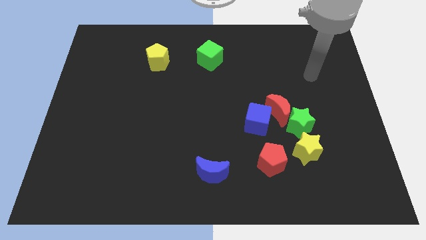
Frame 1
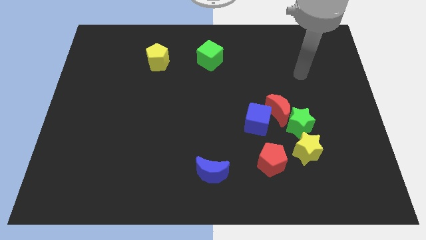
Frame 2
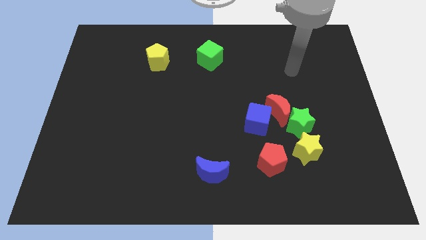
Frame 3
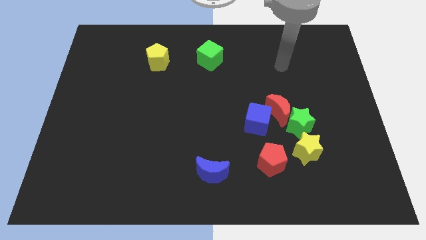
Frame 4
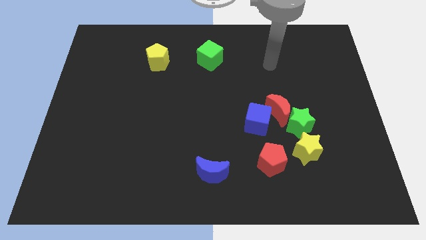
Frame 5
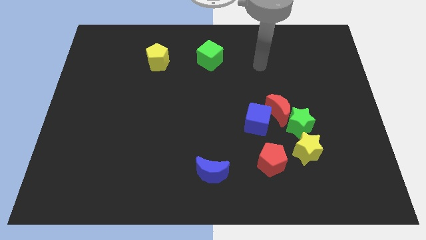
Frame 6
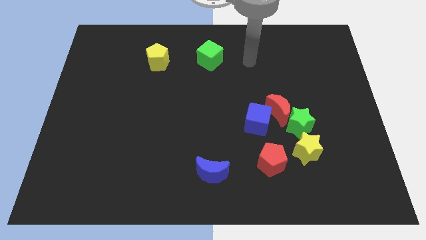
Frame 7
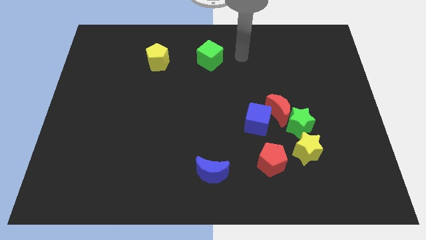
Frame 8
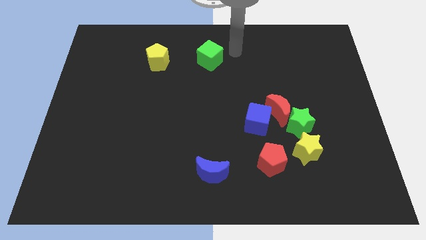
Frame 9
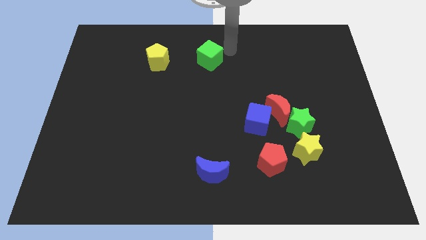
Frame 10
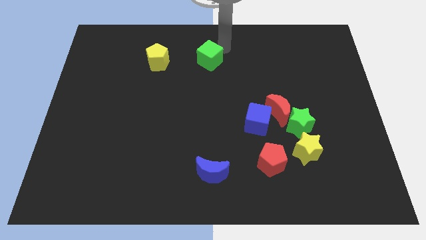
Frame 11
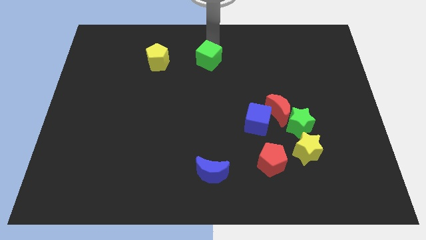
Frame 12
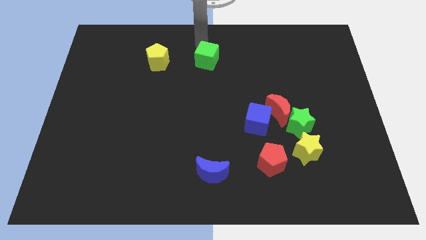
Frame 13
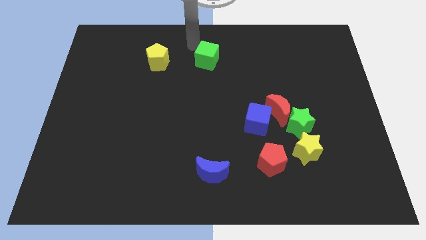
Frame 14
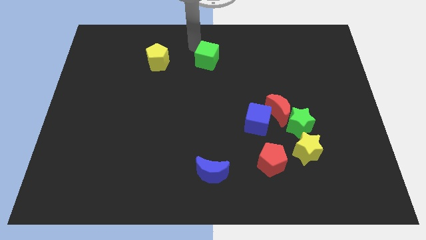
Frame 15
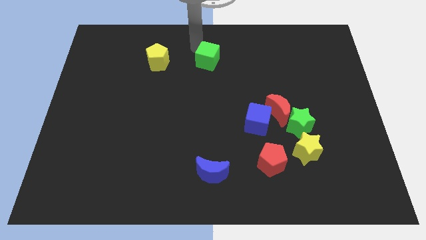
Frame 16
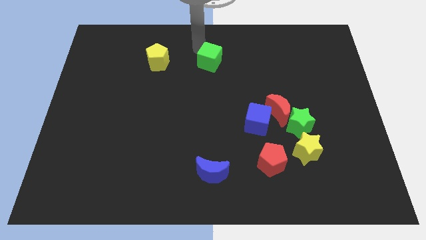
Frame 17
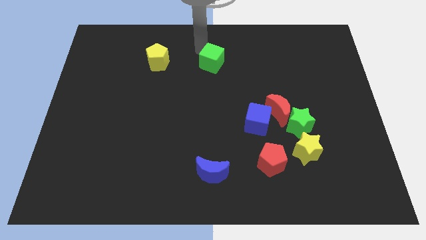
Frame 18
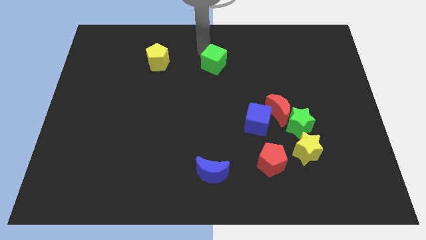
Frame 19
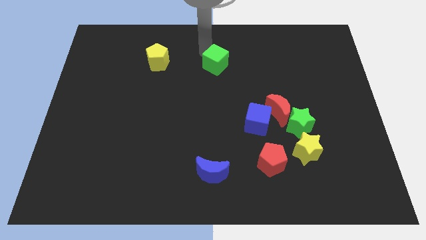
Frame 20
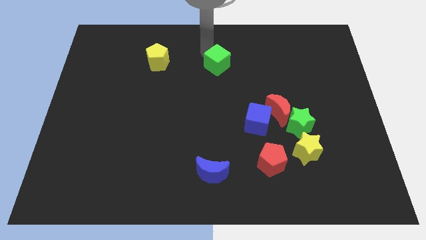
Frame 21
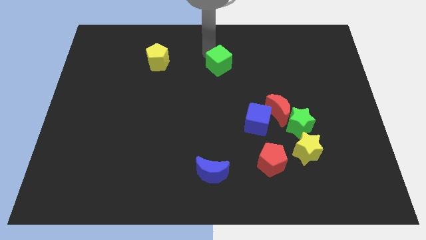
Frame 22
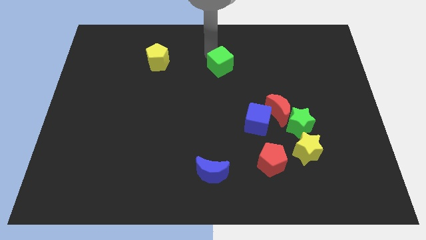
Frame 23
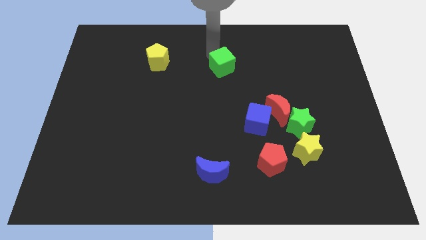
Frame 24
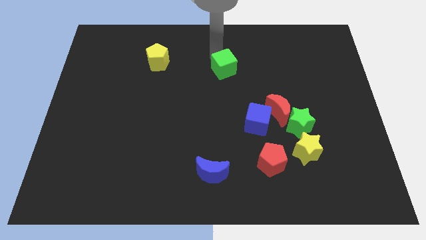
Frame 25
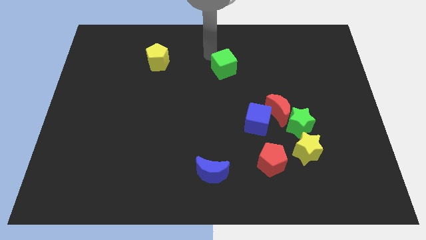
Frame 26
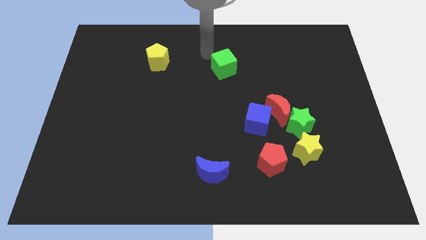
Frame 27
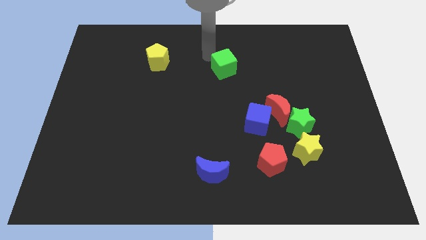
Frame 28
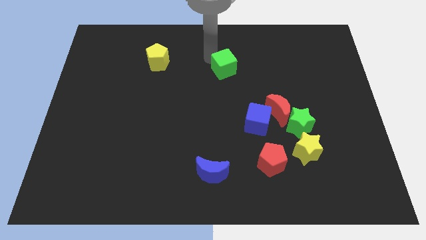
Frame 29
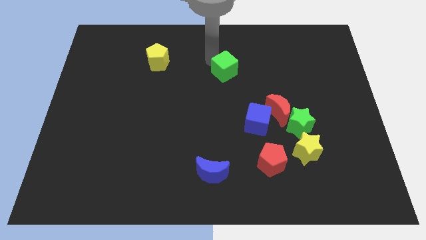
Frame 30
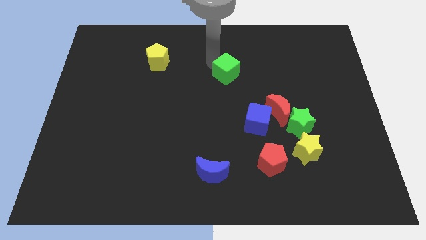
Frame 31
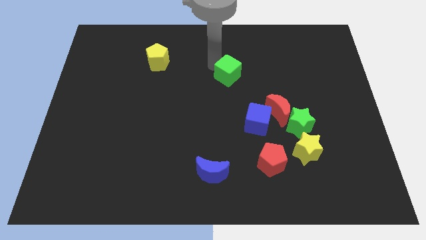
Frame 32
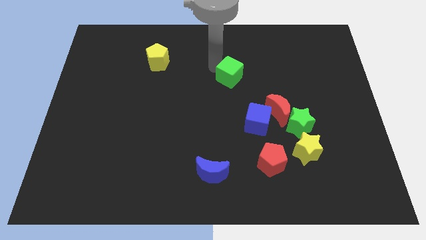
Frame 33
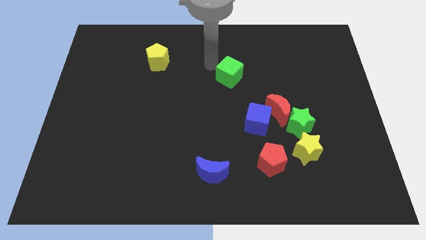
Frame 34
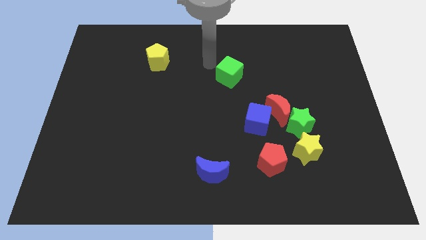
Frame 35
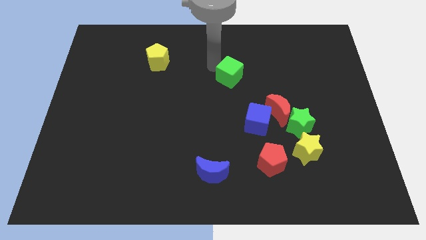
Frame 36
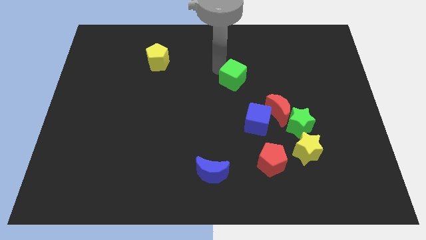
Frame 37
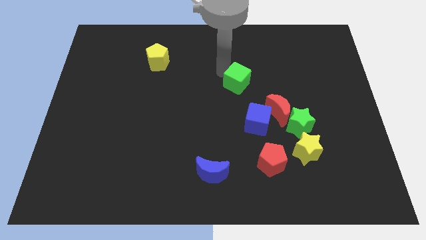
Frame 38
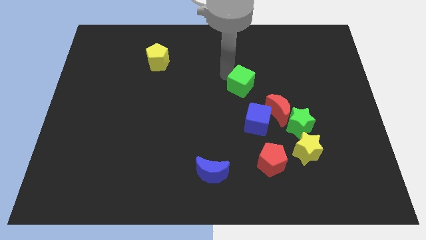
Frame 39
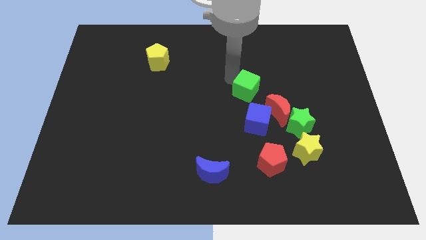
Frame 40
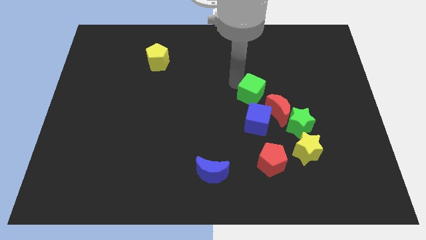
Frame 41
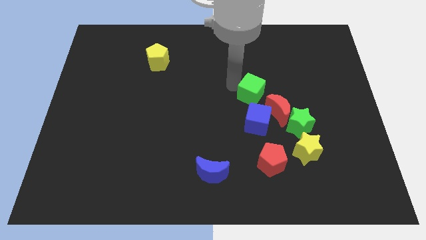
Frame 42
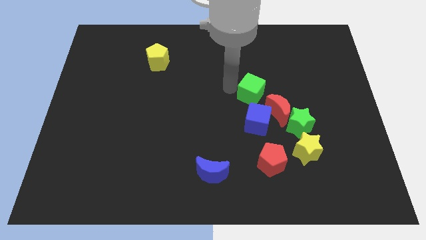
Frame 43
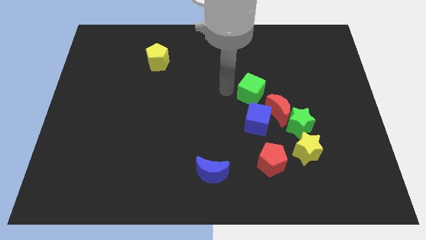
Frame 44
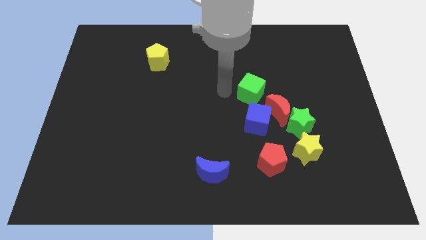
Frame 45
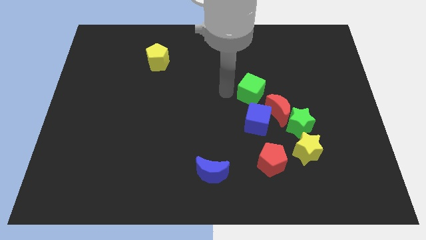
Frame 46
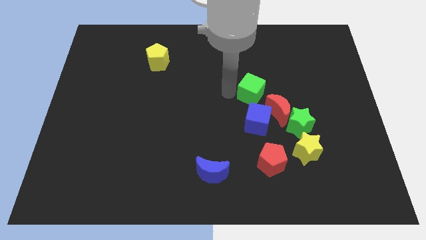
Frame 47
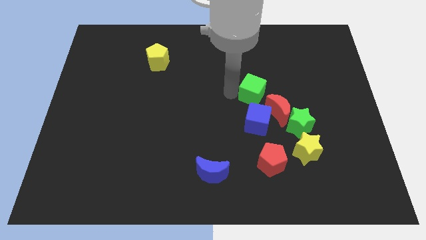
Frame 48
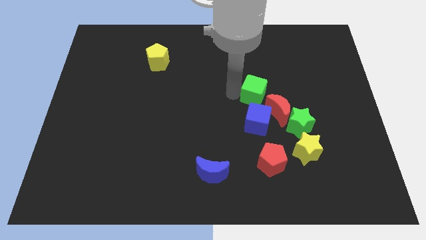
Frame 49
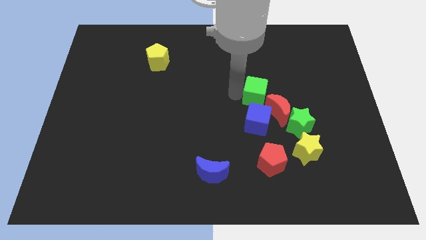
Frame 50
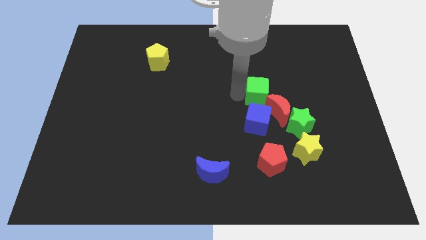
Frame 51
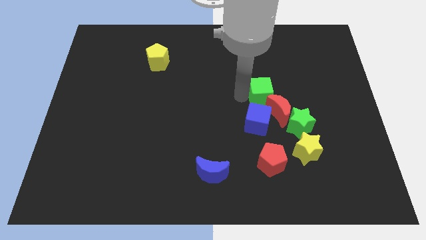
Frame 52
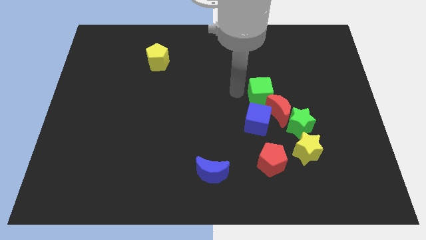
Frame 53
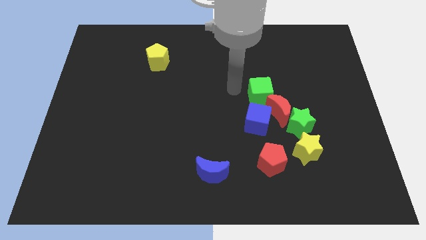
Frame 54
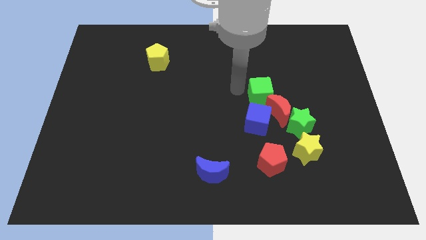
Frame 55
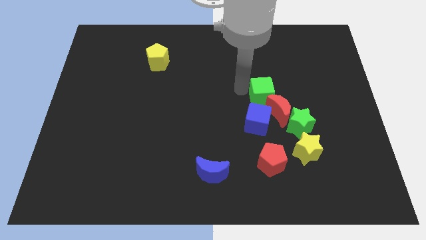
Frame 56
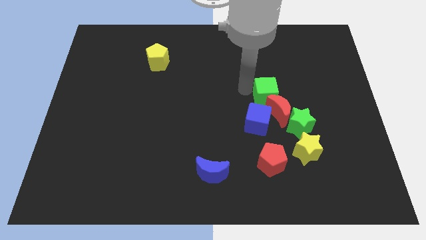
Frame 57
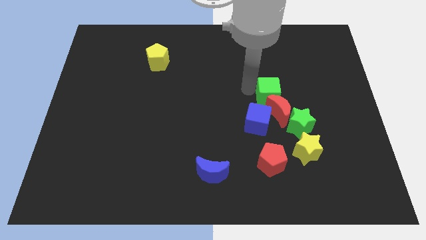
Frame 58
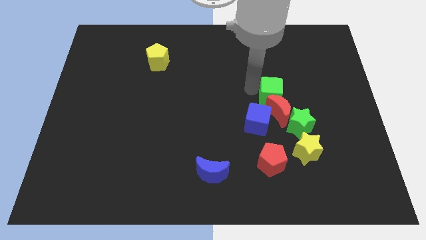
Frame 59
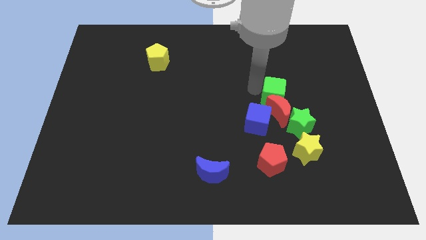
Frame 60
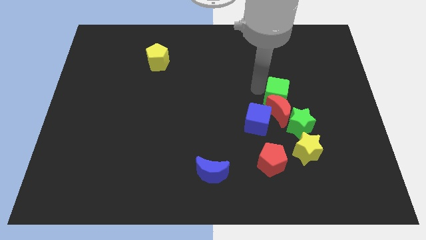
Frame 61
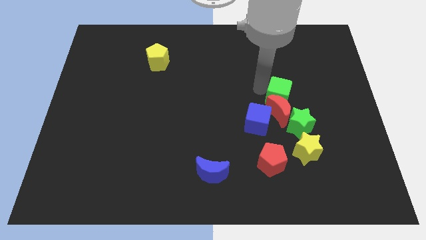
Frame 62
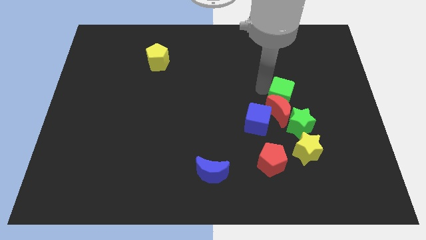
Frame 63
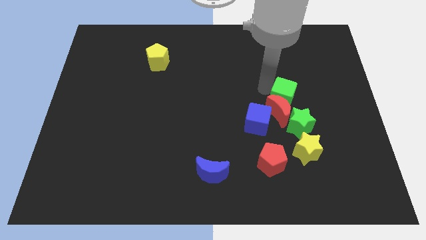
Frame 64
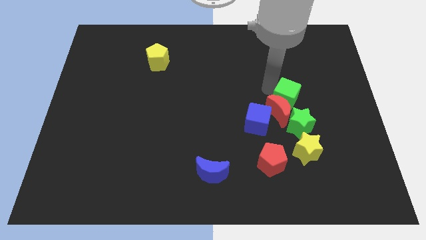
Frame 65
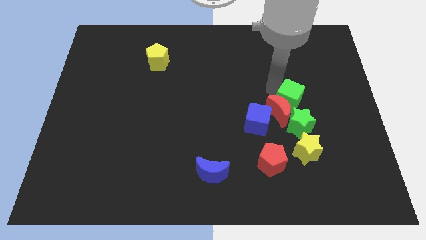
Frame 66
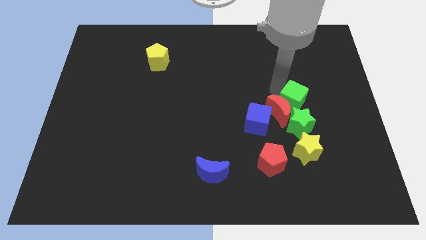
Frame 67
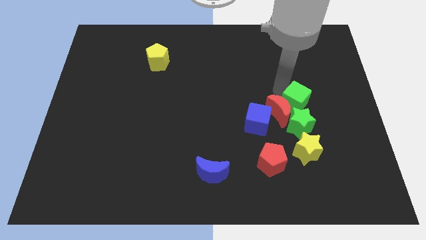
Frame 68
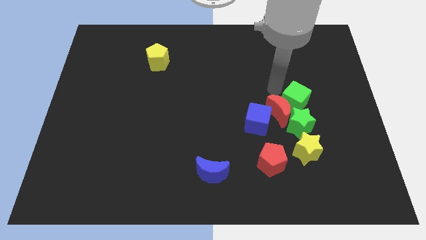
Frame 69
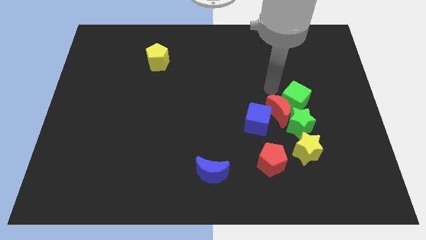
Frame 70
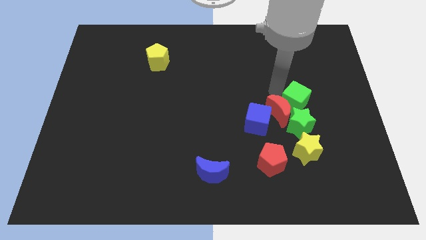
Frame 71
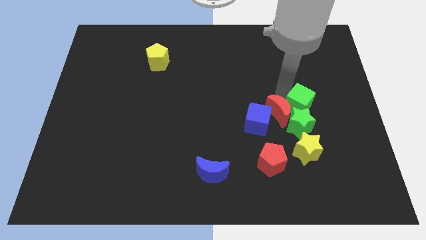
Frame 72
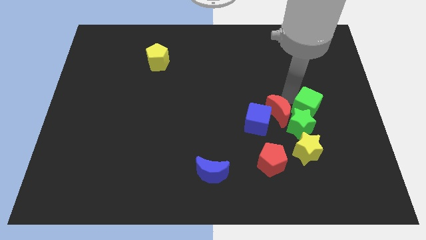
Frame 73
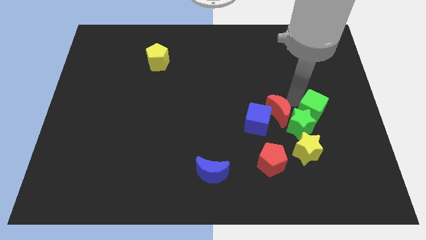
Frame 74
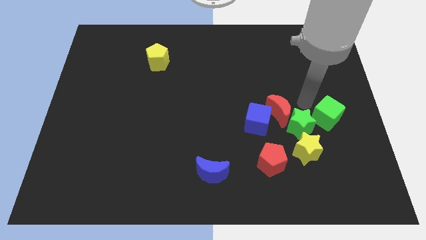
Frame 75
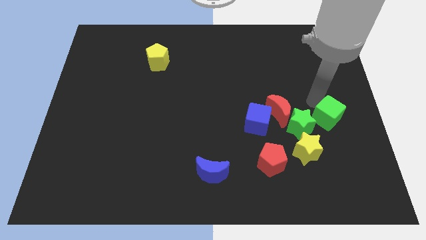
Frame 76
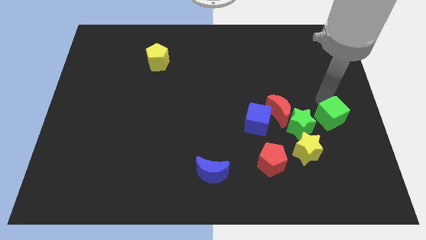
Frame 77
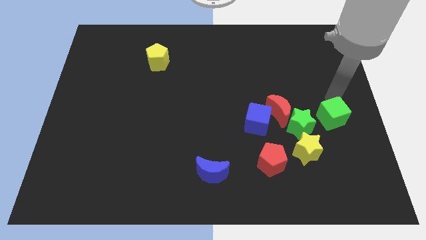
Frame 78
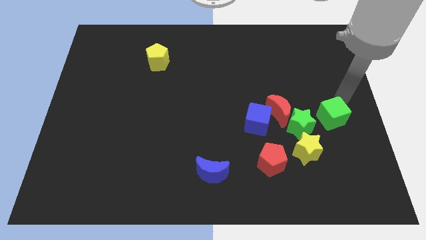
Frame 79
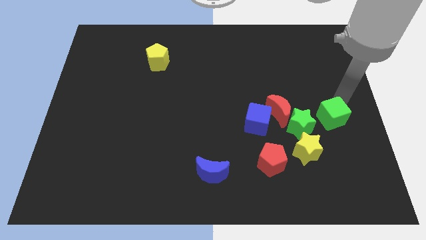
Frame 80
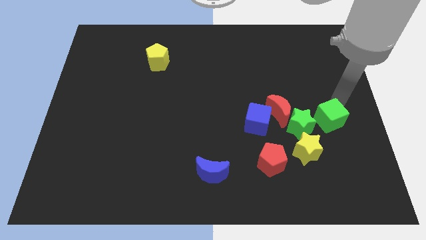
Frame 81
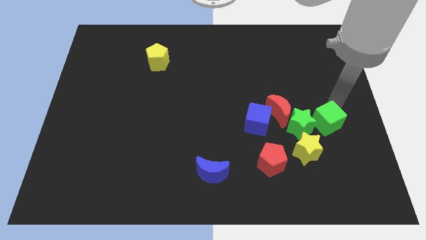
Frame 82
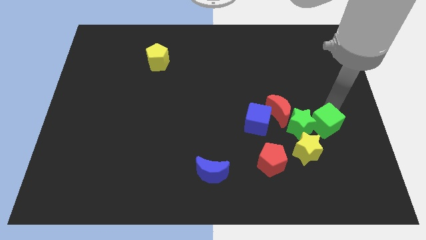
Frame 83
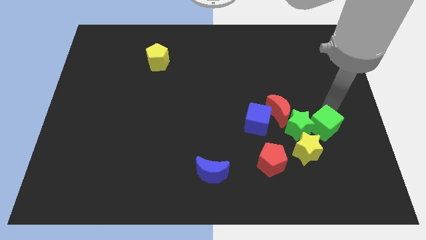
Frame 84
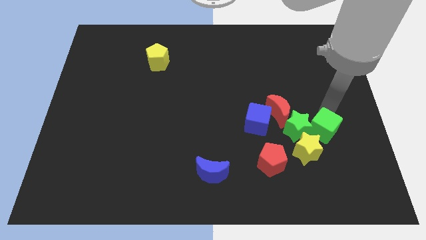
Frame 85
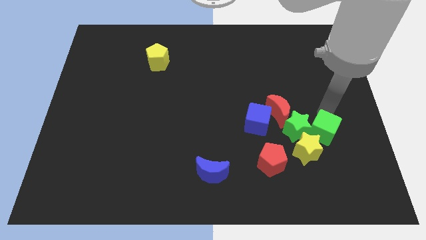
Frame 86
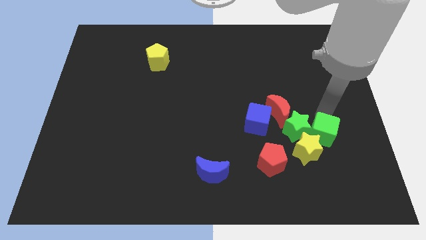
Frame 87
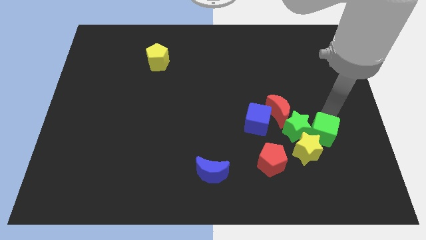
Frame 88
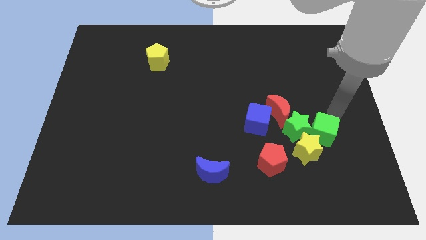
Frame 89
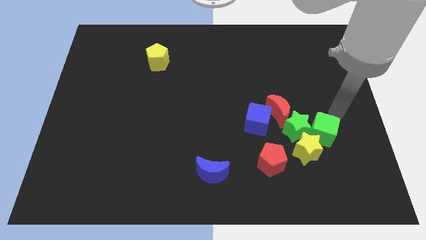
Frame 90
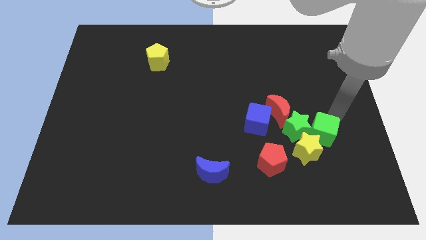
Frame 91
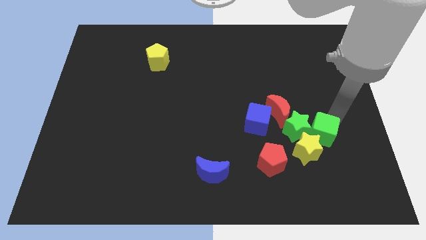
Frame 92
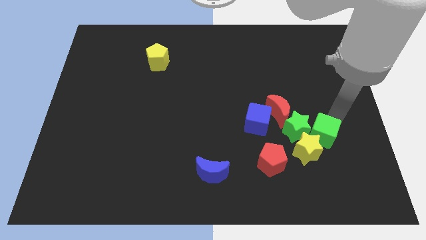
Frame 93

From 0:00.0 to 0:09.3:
put the green cube to the yellow star
